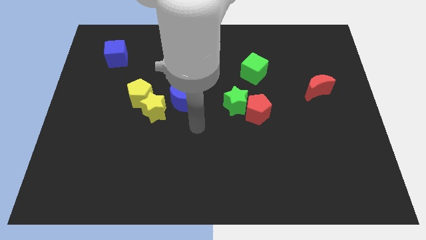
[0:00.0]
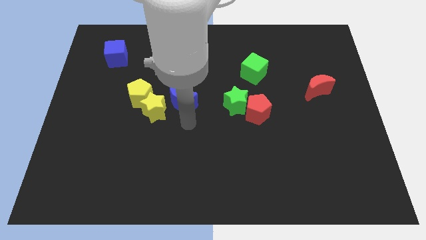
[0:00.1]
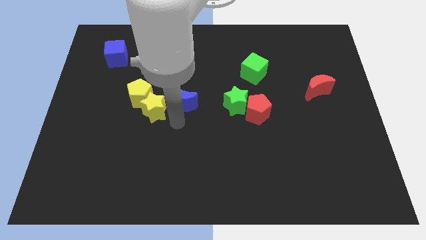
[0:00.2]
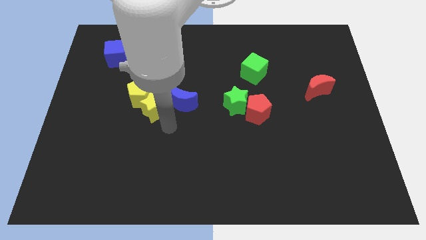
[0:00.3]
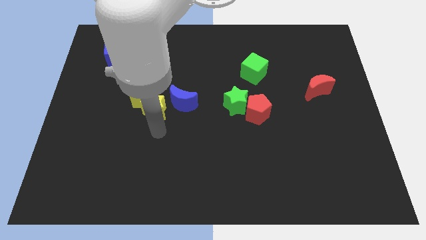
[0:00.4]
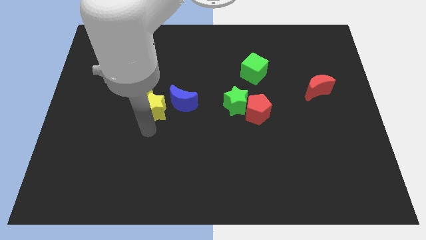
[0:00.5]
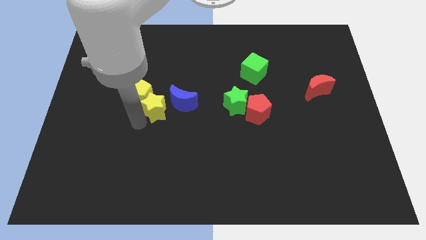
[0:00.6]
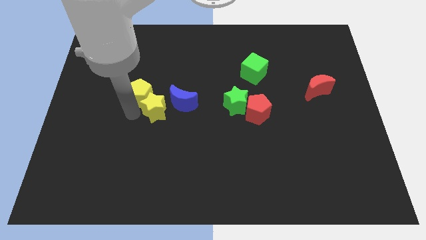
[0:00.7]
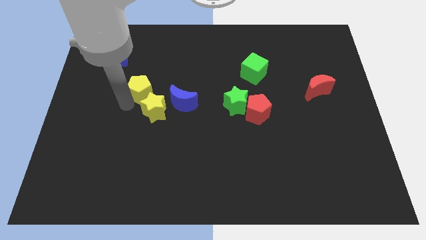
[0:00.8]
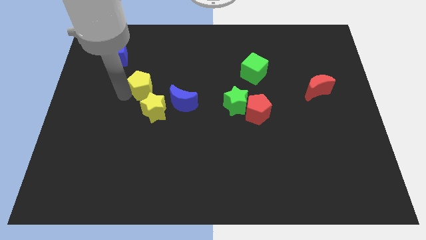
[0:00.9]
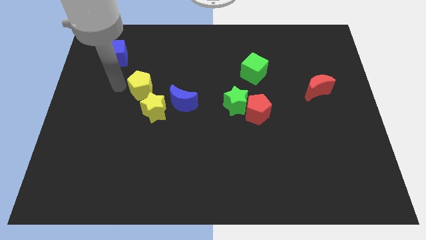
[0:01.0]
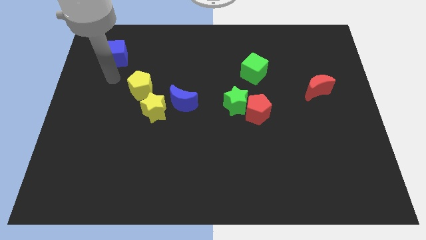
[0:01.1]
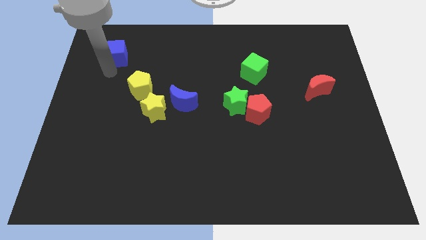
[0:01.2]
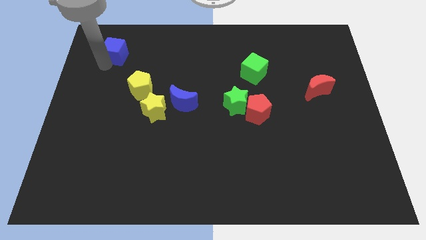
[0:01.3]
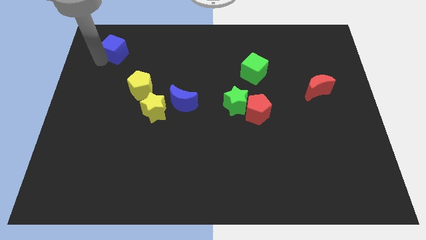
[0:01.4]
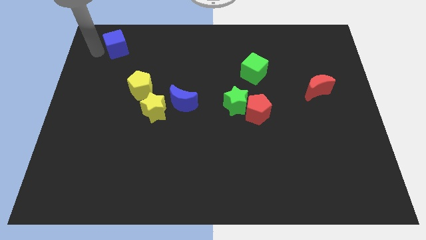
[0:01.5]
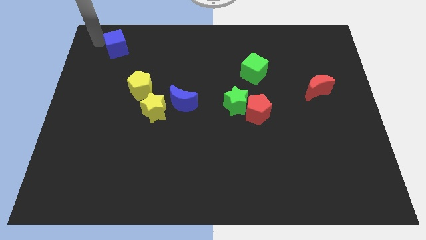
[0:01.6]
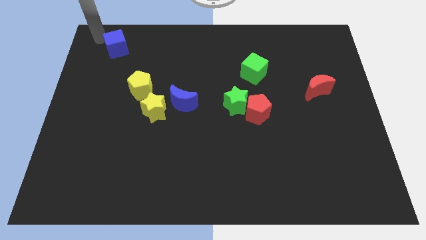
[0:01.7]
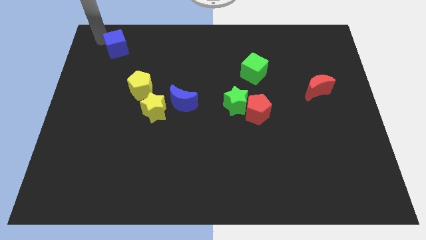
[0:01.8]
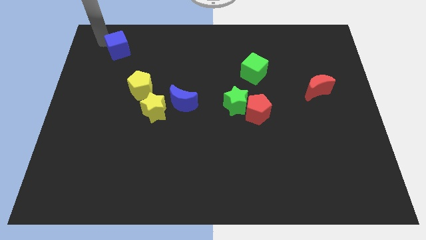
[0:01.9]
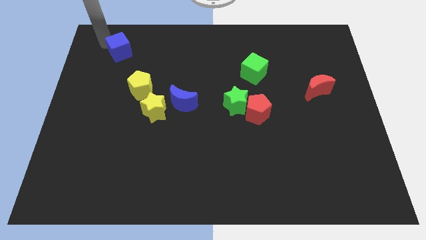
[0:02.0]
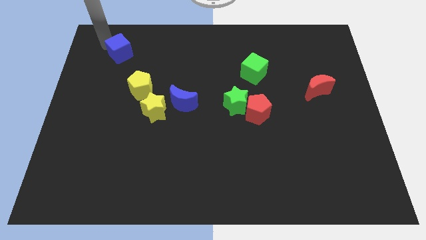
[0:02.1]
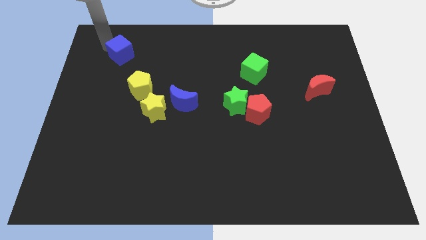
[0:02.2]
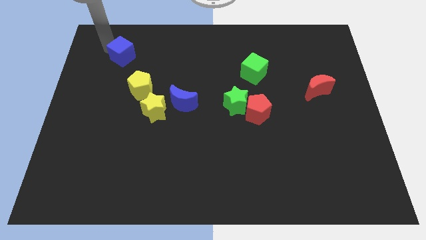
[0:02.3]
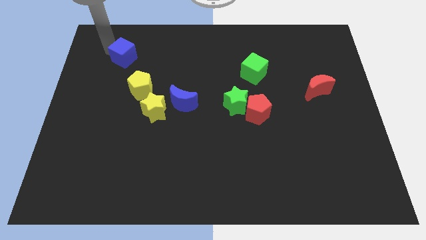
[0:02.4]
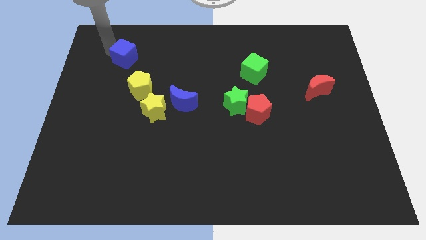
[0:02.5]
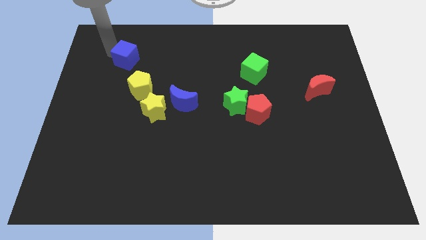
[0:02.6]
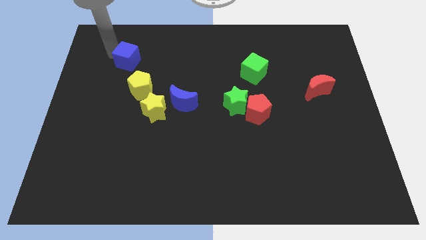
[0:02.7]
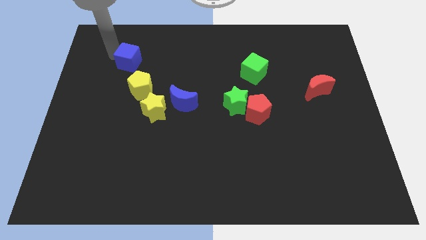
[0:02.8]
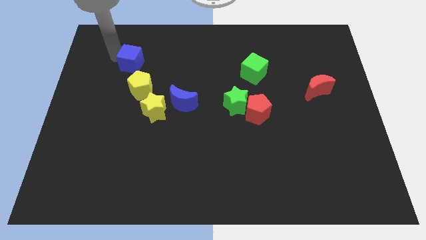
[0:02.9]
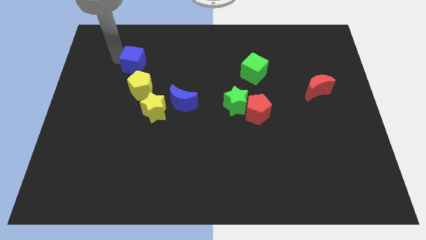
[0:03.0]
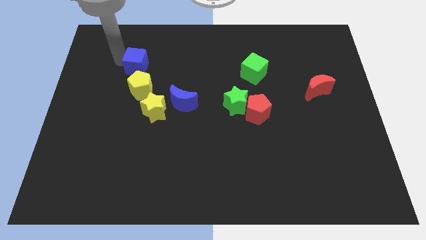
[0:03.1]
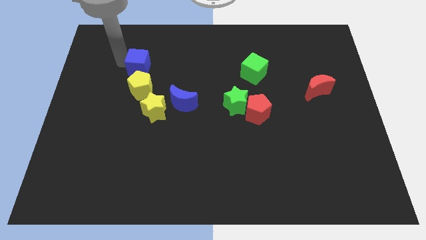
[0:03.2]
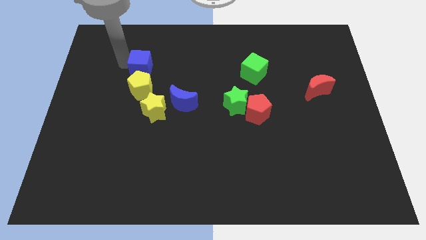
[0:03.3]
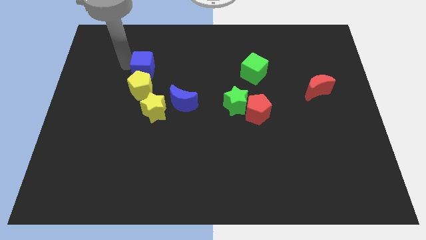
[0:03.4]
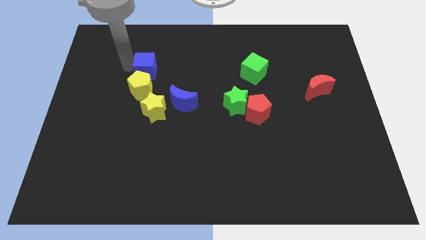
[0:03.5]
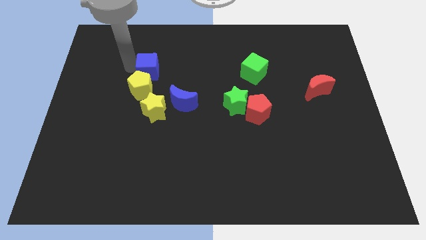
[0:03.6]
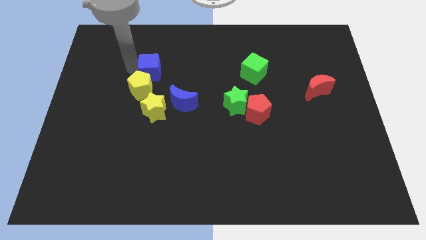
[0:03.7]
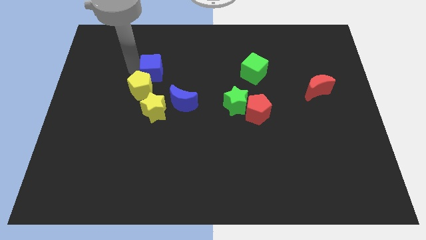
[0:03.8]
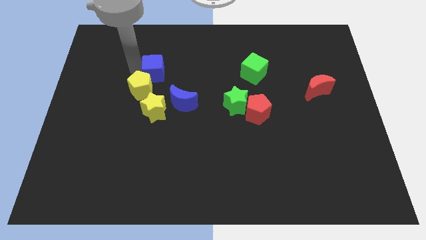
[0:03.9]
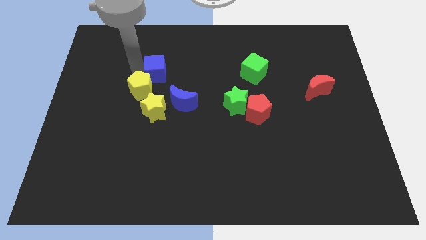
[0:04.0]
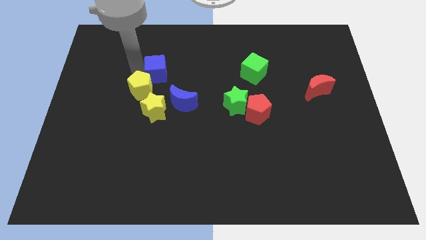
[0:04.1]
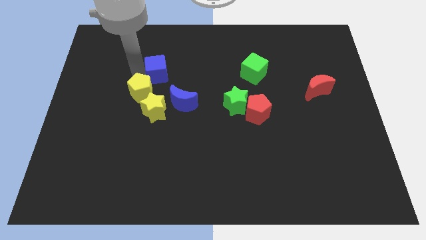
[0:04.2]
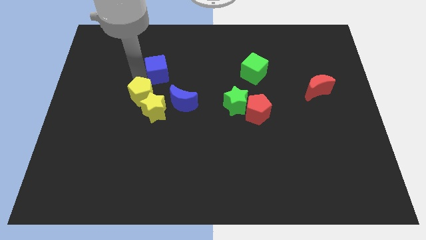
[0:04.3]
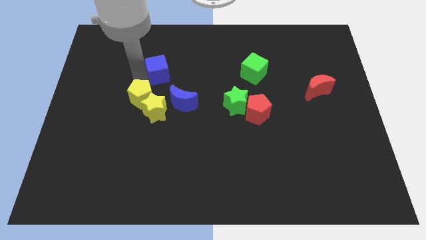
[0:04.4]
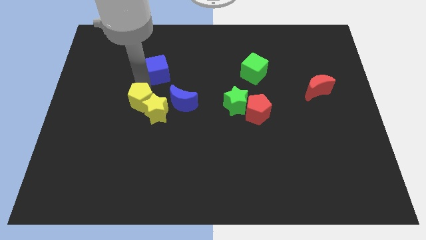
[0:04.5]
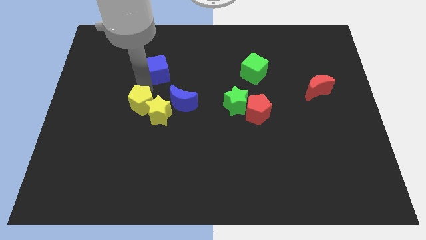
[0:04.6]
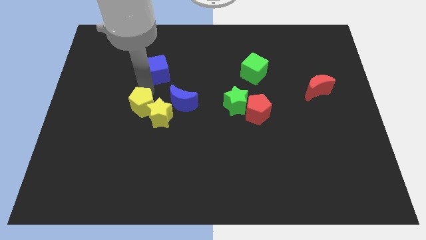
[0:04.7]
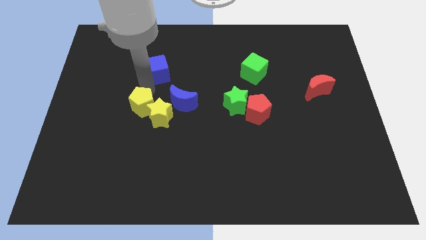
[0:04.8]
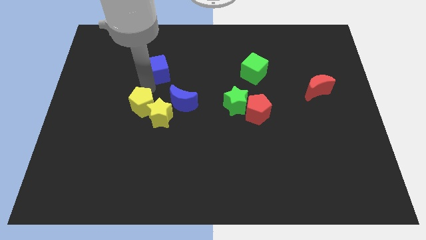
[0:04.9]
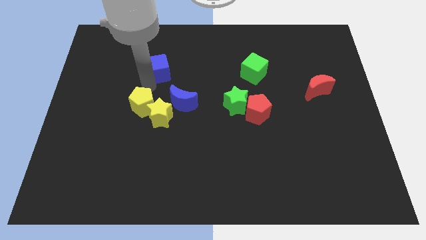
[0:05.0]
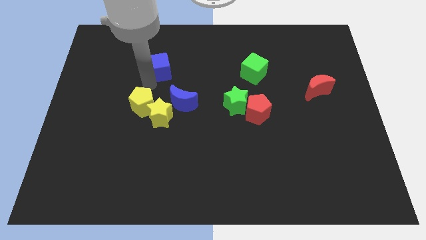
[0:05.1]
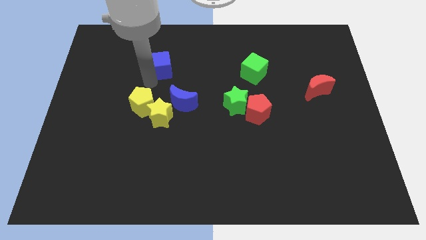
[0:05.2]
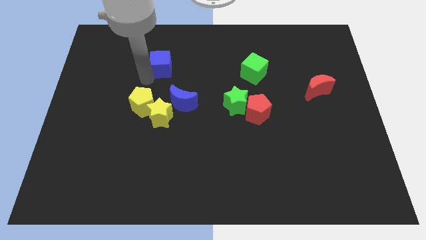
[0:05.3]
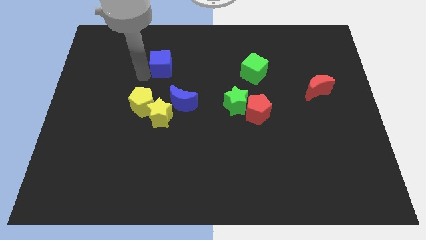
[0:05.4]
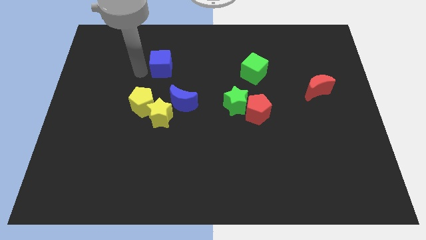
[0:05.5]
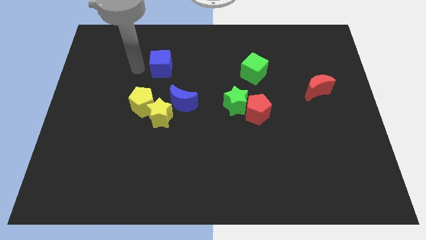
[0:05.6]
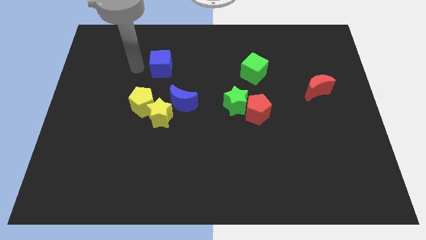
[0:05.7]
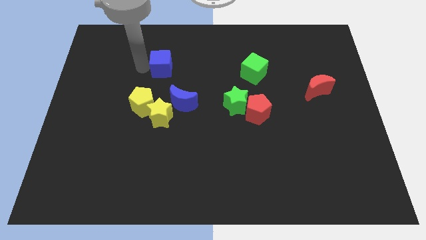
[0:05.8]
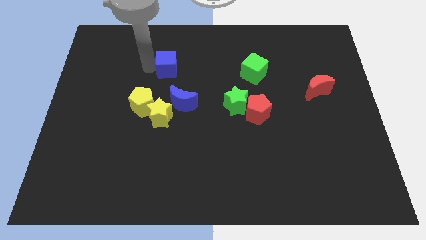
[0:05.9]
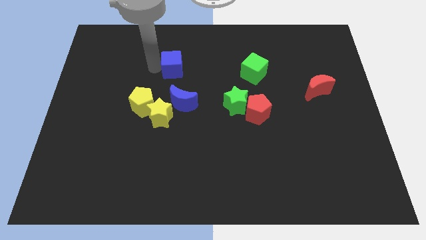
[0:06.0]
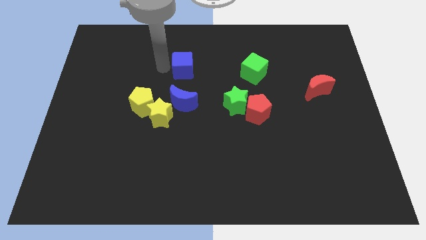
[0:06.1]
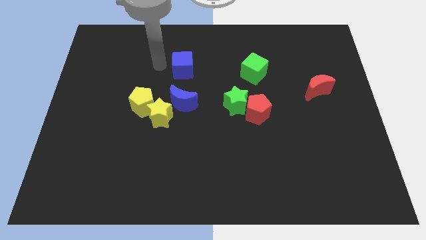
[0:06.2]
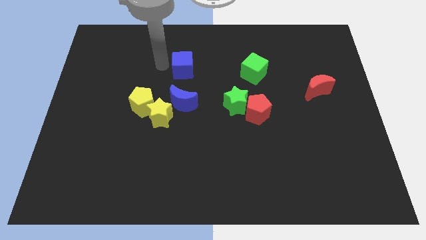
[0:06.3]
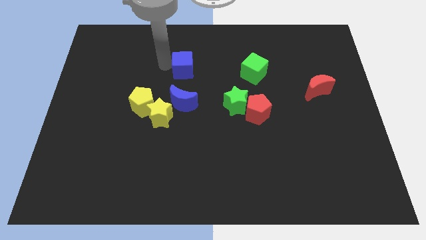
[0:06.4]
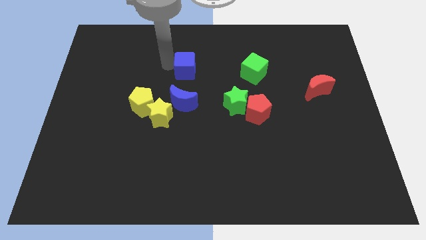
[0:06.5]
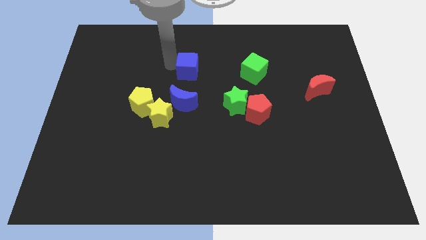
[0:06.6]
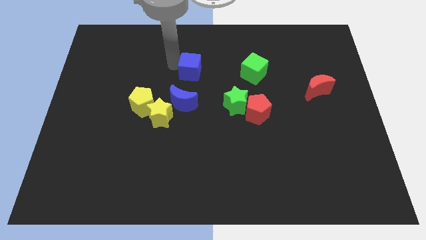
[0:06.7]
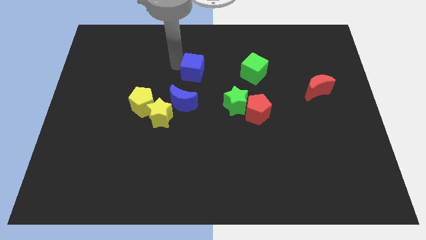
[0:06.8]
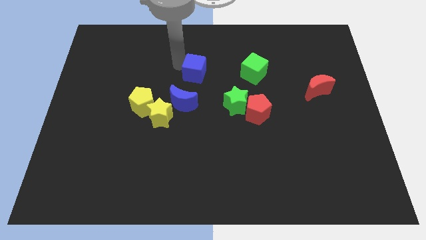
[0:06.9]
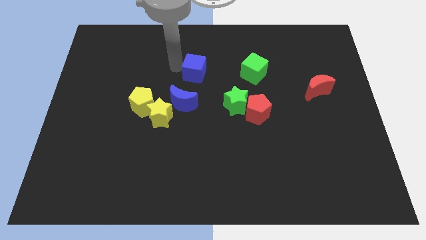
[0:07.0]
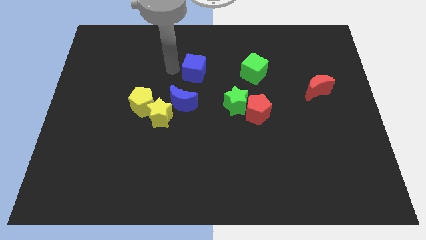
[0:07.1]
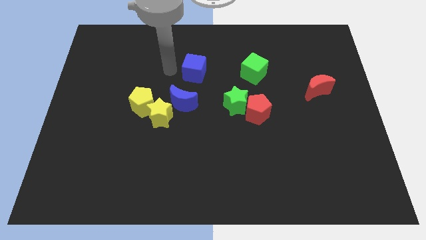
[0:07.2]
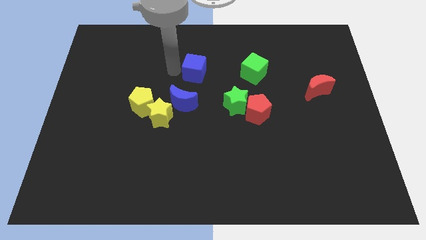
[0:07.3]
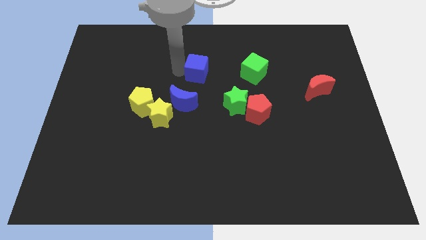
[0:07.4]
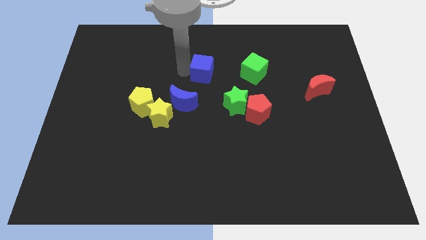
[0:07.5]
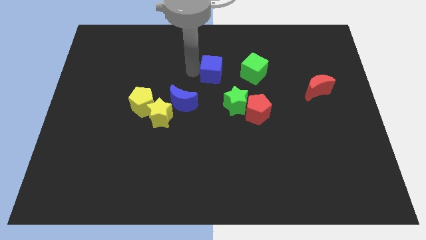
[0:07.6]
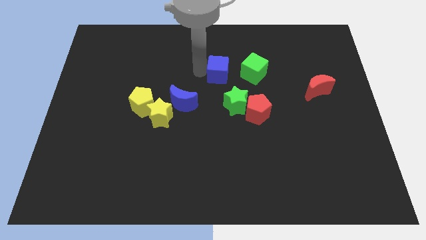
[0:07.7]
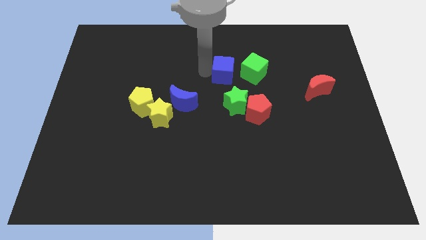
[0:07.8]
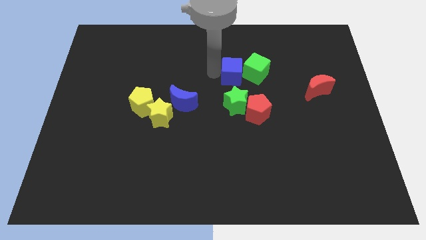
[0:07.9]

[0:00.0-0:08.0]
push the blue cube close to the green cube
